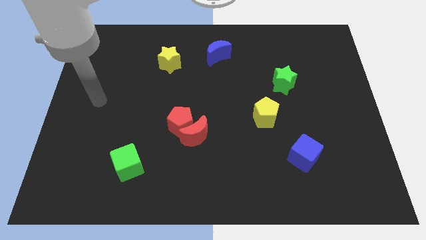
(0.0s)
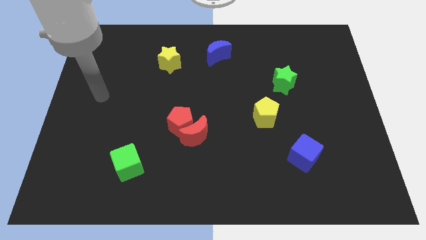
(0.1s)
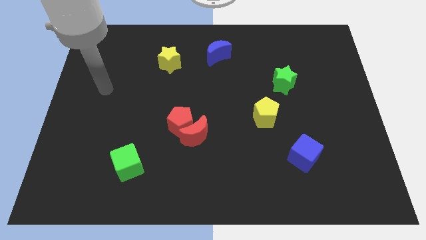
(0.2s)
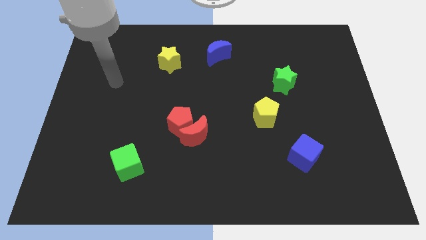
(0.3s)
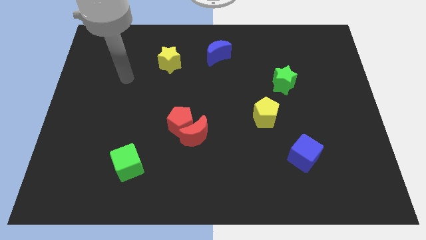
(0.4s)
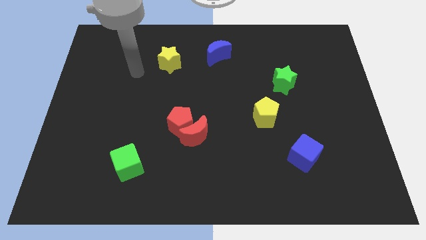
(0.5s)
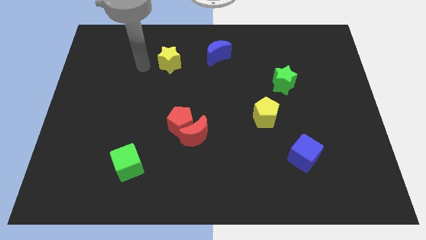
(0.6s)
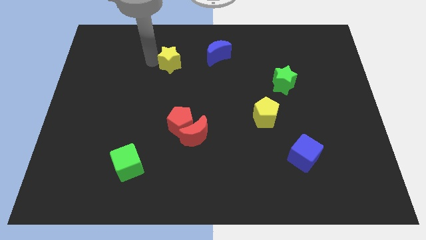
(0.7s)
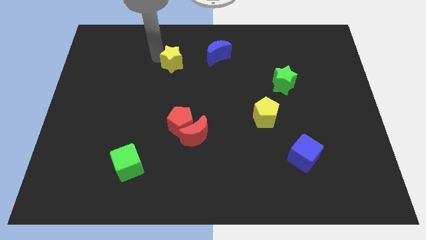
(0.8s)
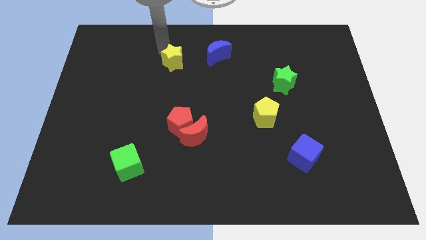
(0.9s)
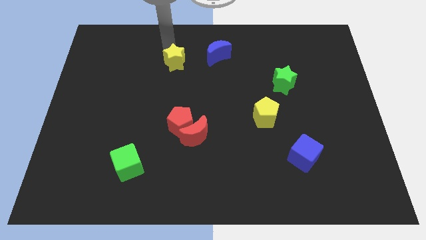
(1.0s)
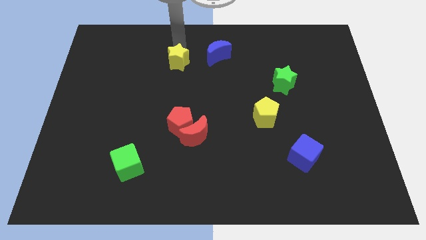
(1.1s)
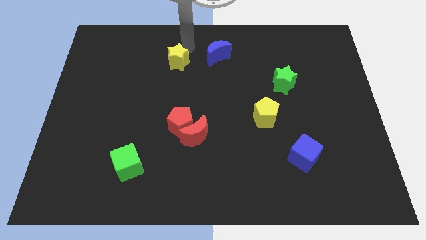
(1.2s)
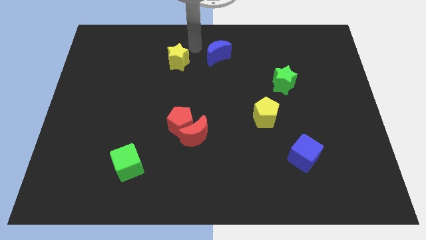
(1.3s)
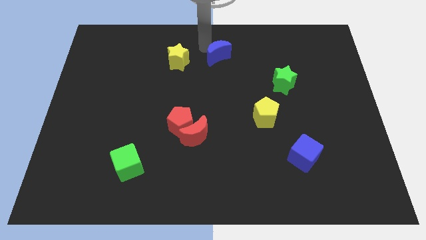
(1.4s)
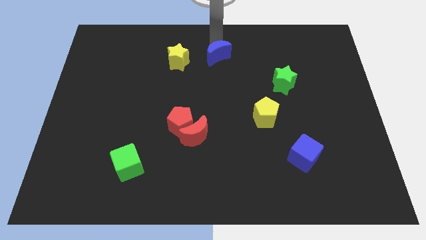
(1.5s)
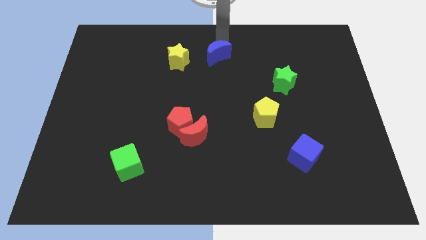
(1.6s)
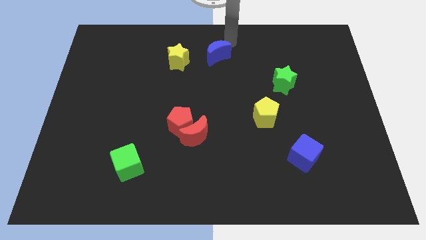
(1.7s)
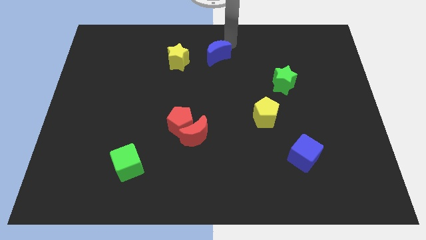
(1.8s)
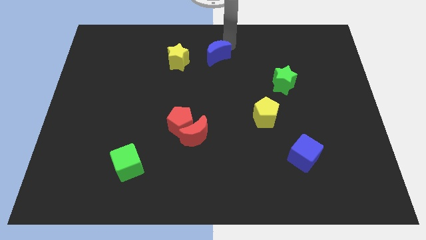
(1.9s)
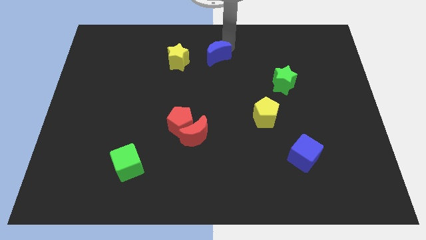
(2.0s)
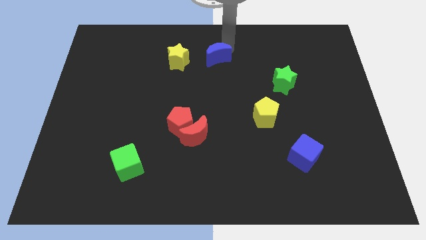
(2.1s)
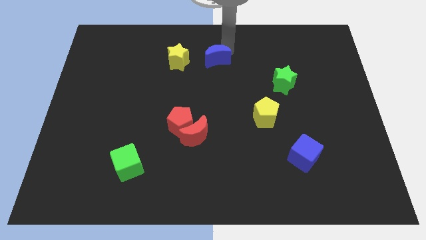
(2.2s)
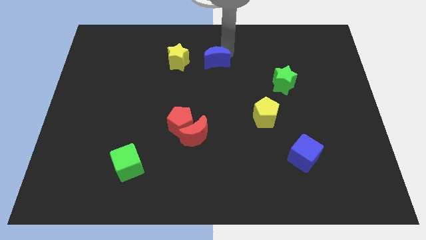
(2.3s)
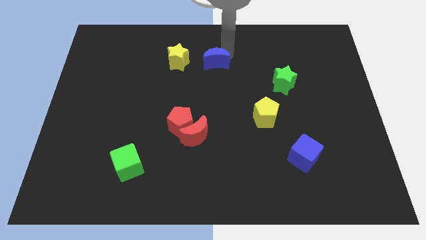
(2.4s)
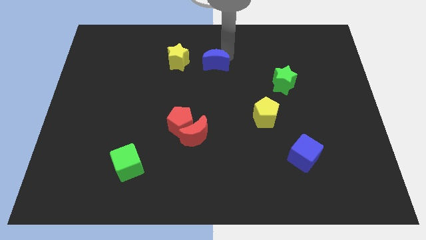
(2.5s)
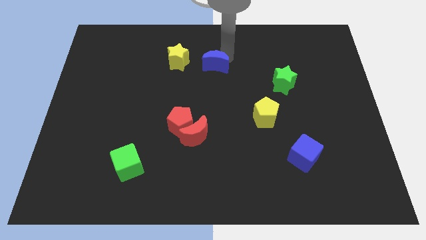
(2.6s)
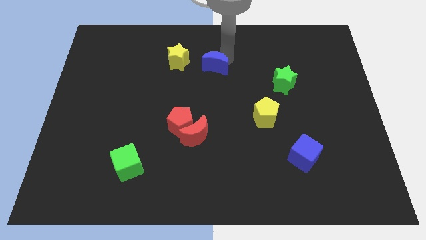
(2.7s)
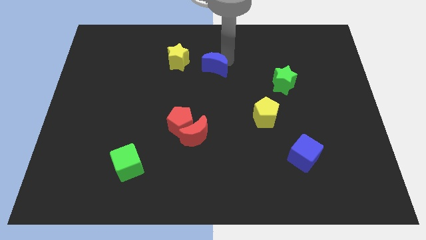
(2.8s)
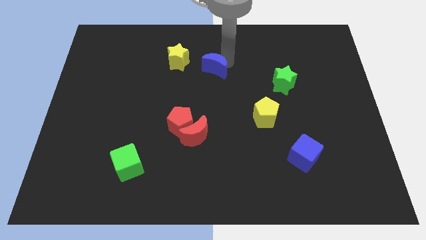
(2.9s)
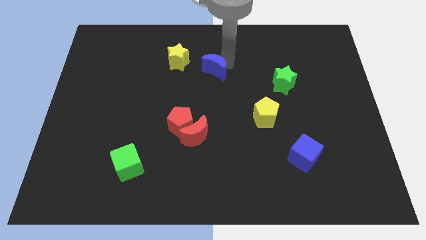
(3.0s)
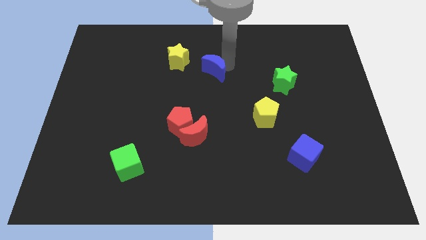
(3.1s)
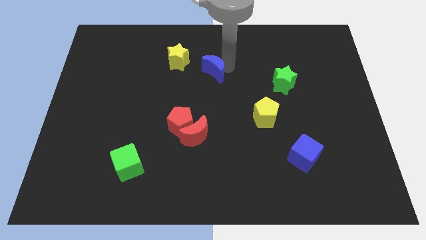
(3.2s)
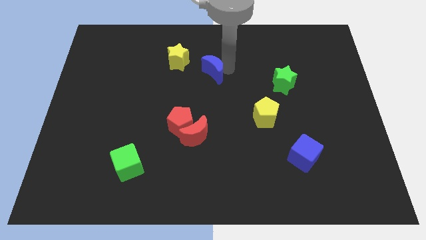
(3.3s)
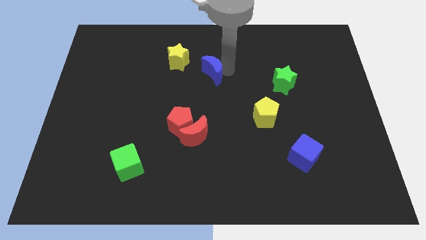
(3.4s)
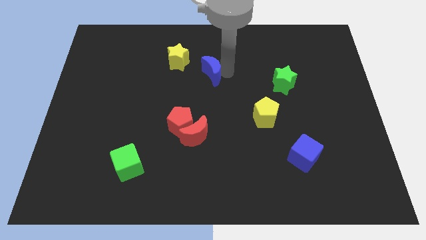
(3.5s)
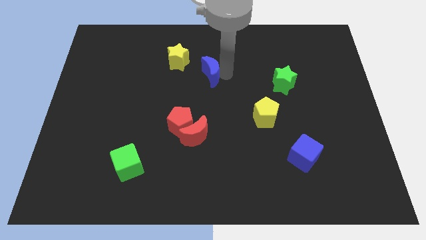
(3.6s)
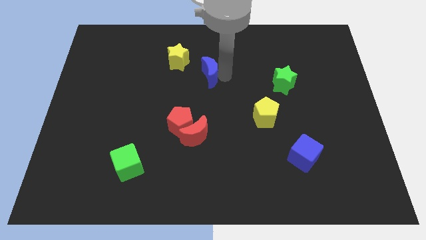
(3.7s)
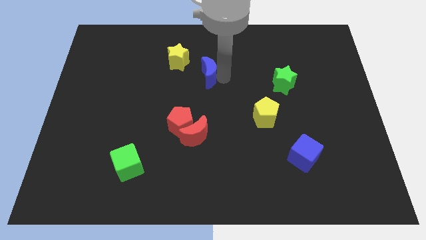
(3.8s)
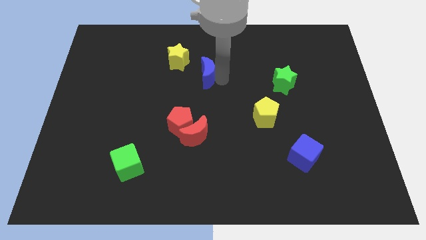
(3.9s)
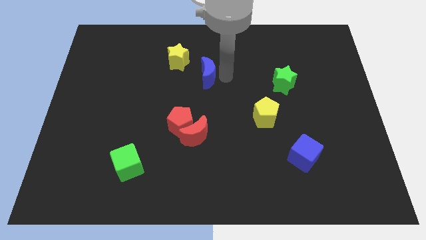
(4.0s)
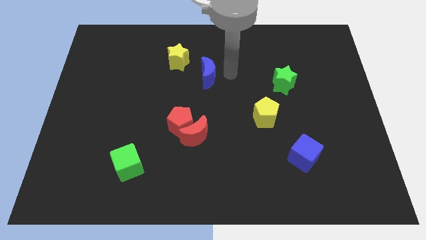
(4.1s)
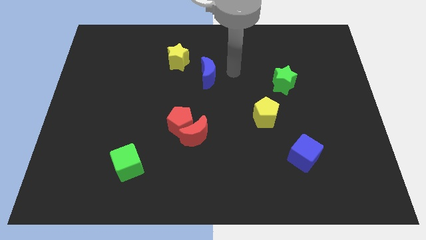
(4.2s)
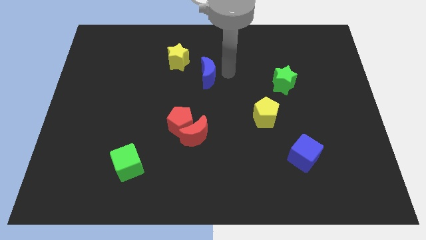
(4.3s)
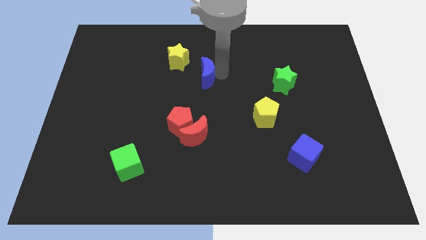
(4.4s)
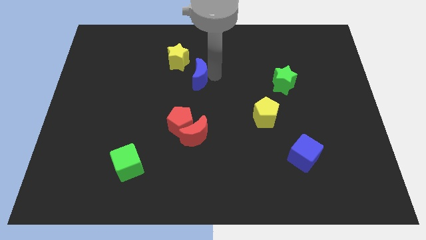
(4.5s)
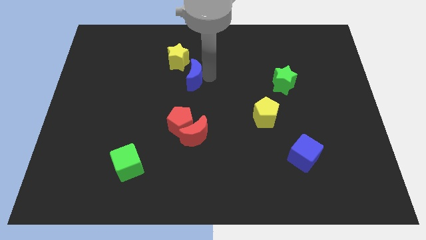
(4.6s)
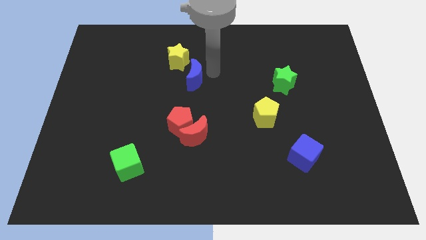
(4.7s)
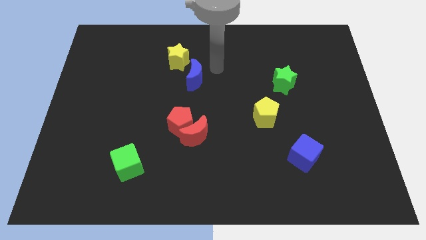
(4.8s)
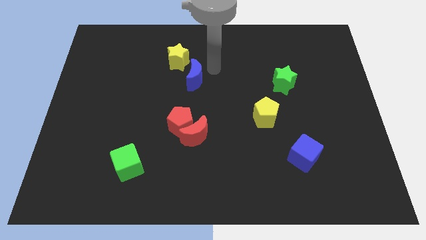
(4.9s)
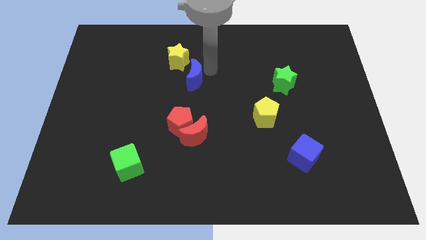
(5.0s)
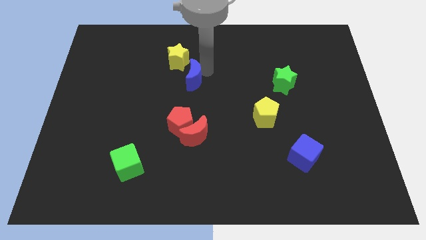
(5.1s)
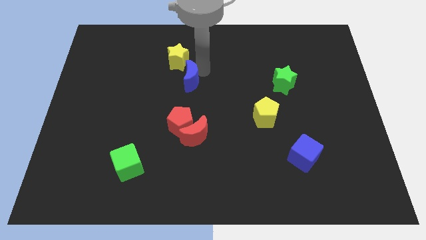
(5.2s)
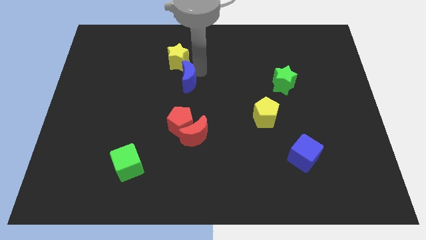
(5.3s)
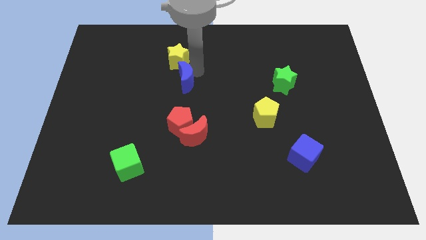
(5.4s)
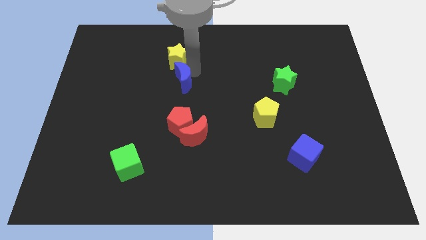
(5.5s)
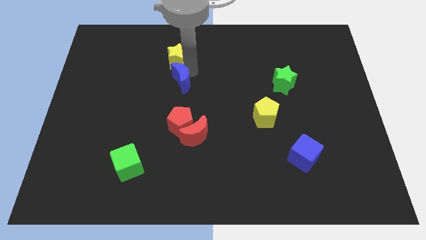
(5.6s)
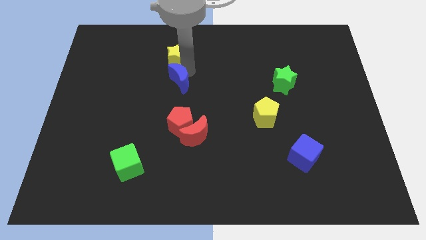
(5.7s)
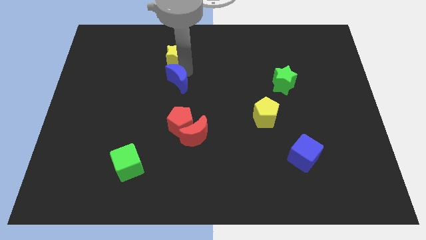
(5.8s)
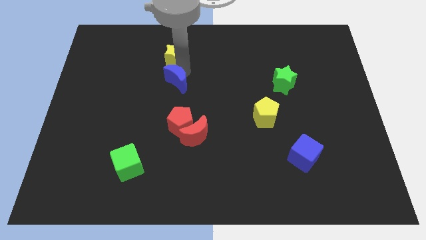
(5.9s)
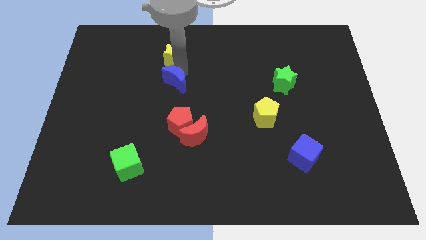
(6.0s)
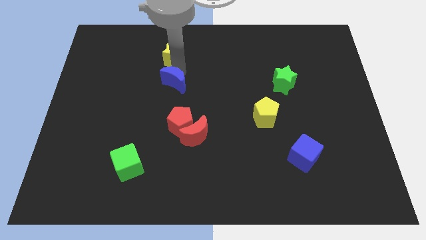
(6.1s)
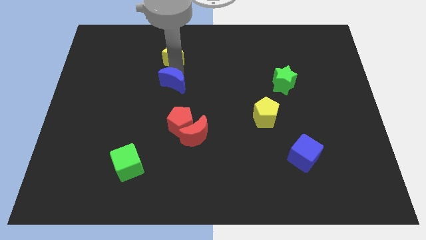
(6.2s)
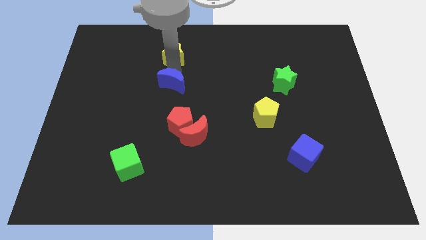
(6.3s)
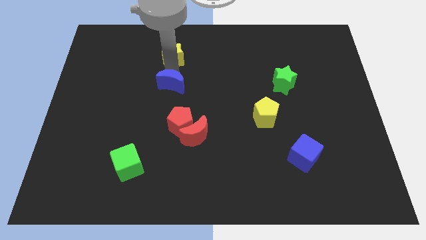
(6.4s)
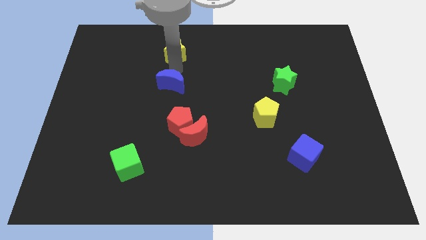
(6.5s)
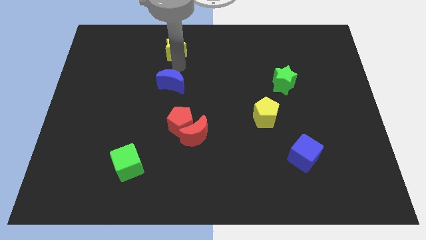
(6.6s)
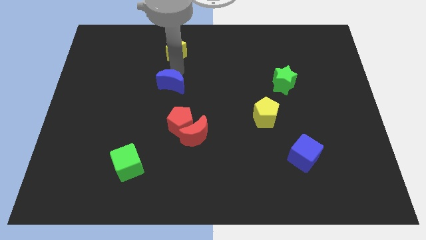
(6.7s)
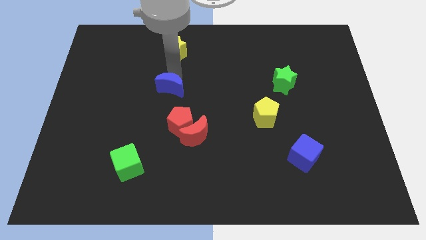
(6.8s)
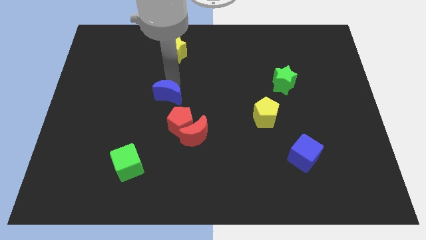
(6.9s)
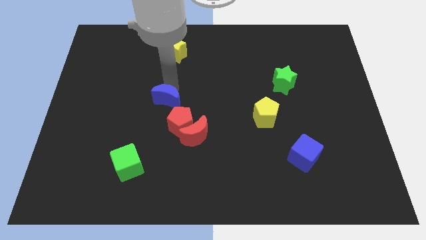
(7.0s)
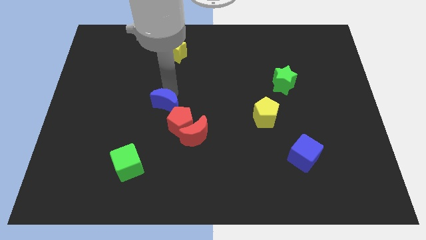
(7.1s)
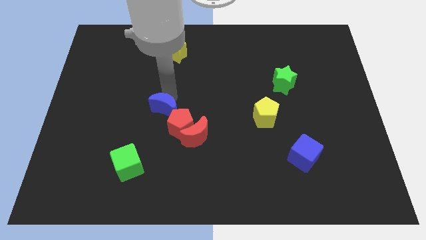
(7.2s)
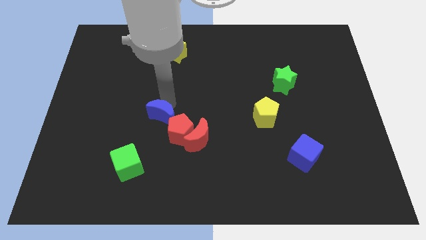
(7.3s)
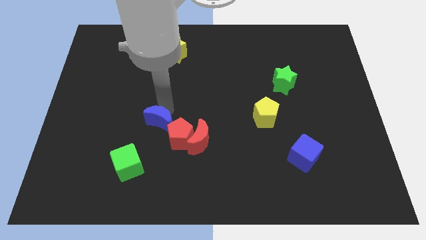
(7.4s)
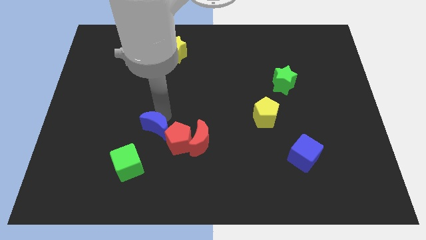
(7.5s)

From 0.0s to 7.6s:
move the blue moon to the left of the red moon

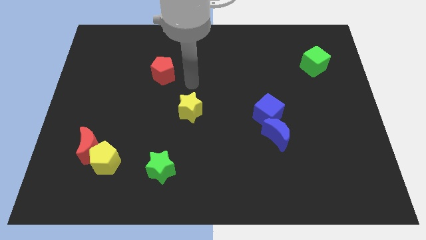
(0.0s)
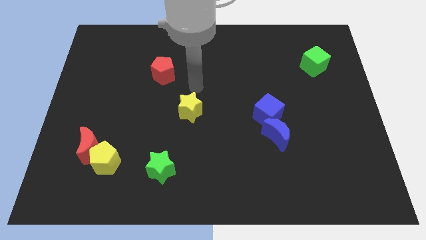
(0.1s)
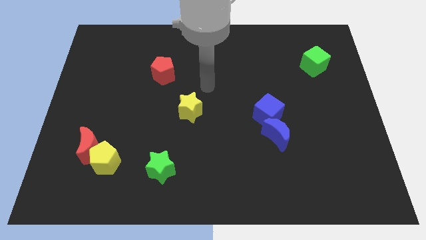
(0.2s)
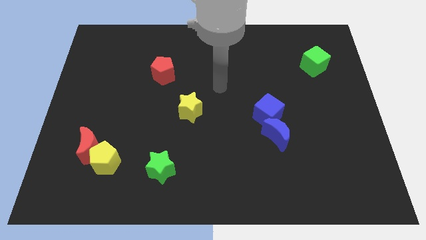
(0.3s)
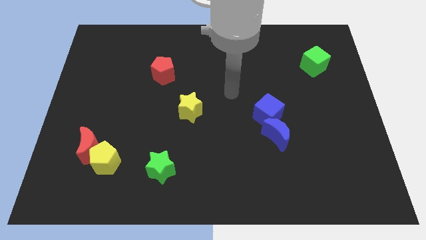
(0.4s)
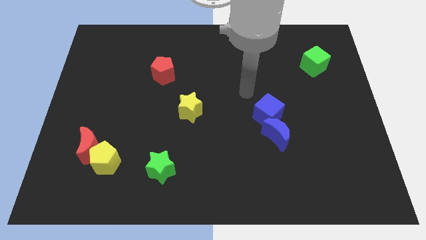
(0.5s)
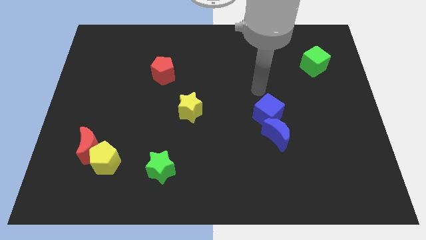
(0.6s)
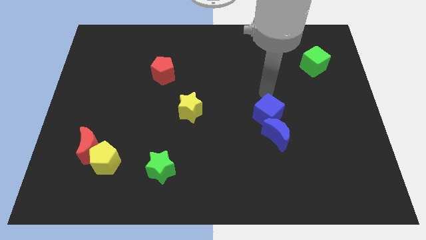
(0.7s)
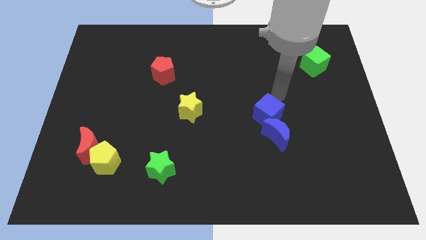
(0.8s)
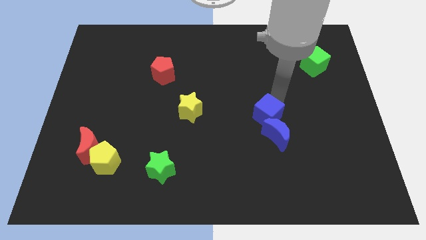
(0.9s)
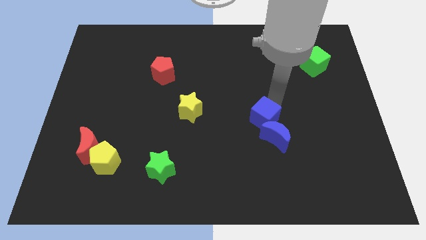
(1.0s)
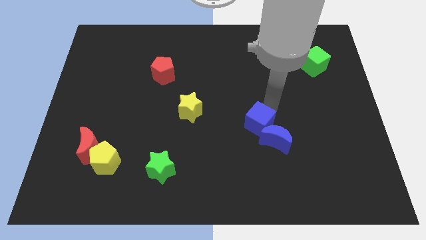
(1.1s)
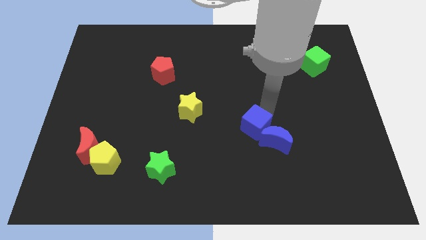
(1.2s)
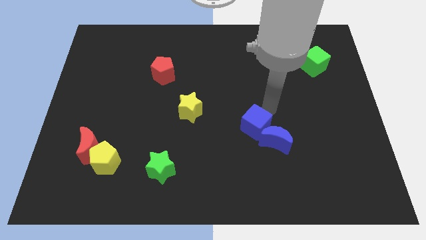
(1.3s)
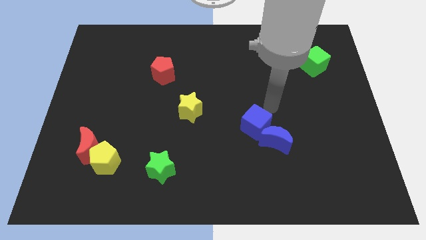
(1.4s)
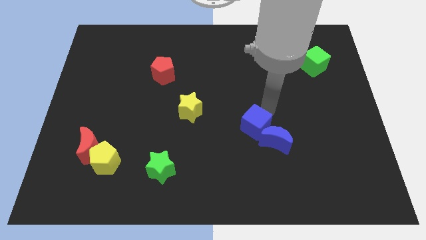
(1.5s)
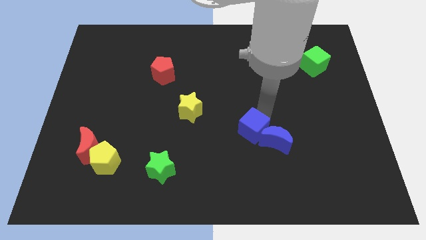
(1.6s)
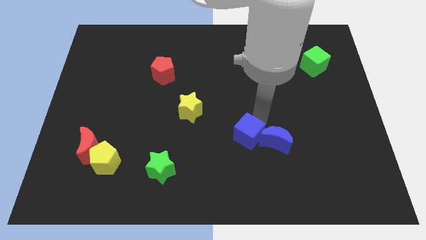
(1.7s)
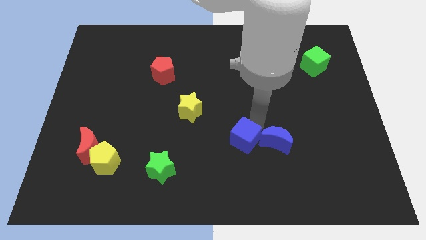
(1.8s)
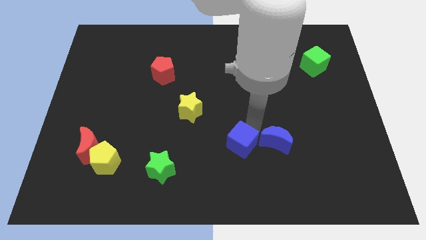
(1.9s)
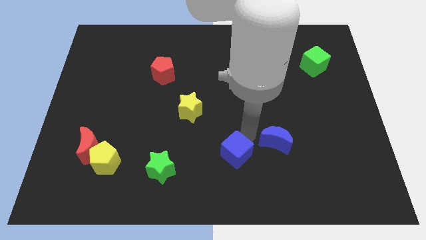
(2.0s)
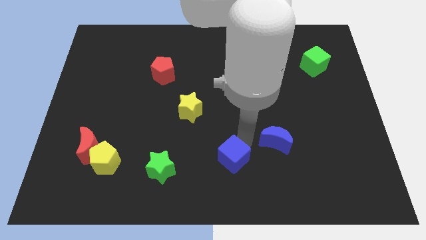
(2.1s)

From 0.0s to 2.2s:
push the blue cube just right of the green star
